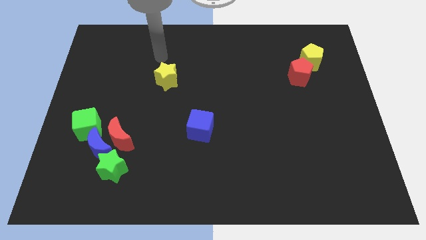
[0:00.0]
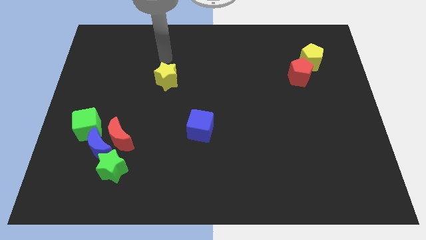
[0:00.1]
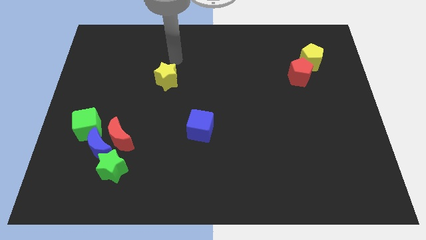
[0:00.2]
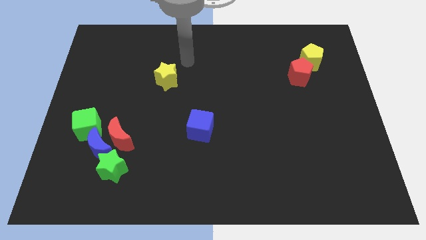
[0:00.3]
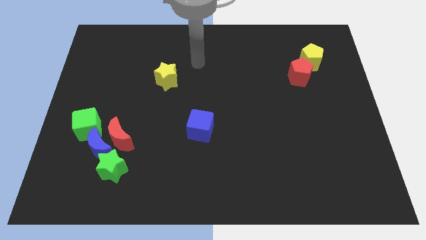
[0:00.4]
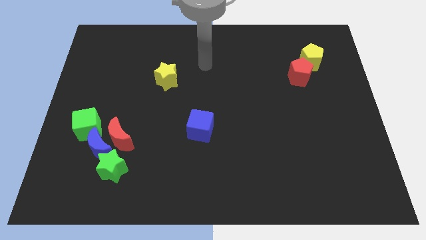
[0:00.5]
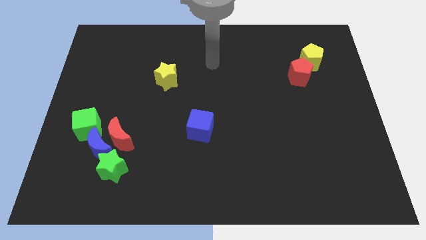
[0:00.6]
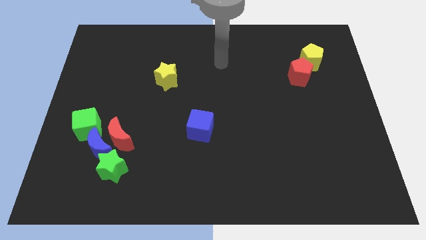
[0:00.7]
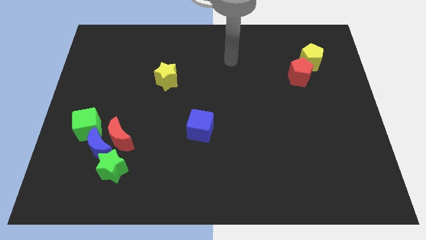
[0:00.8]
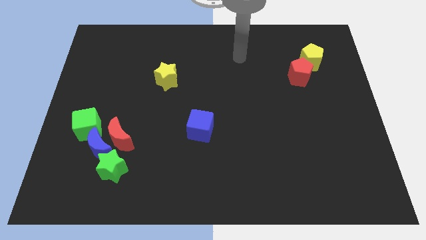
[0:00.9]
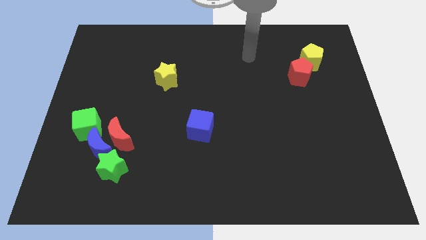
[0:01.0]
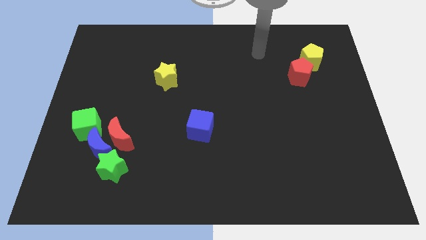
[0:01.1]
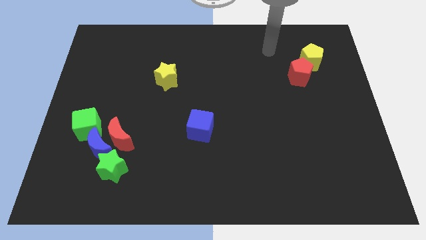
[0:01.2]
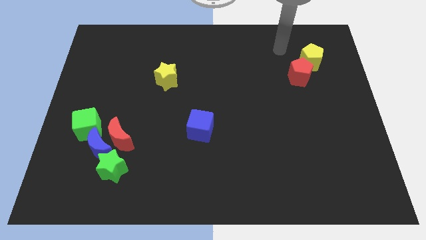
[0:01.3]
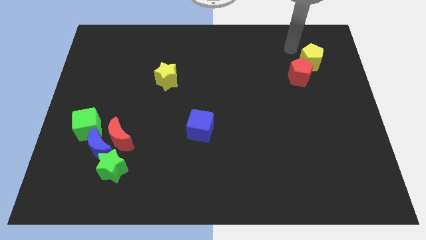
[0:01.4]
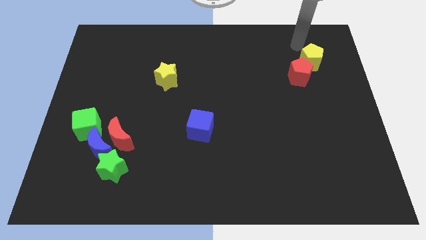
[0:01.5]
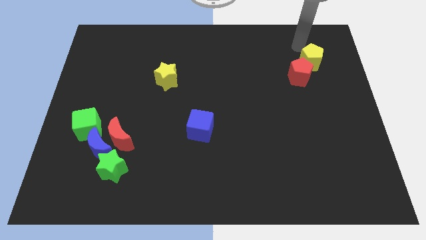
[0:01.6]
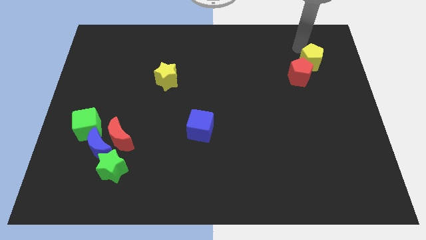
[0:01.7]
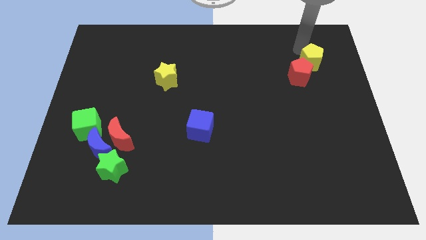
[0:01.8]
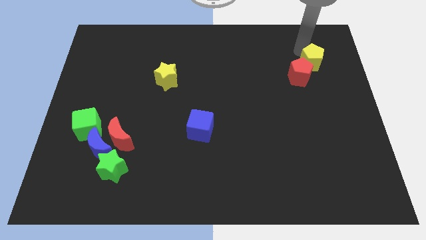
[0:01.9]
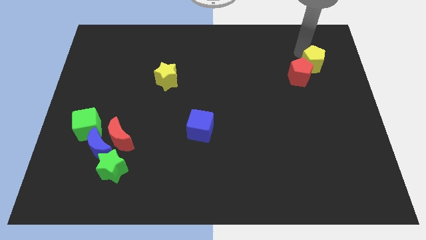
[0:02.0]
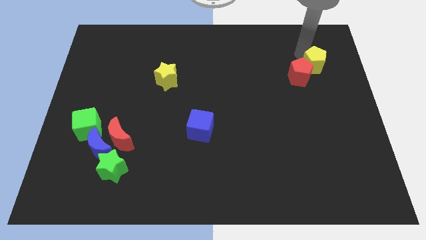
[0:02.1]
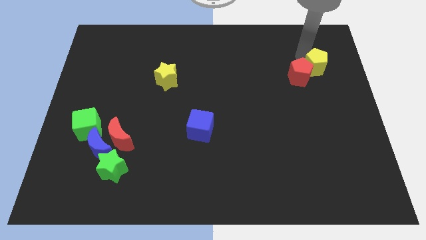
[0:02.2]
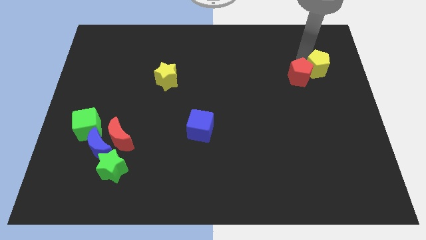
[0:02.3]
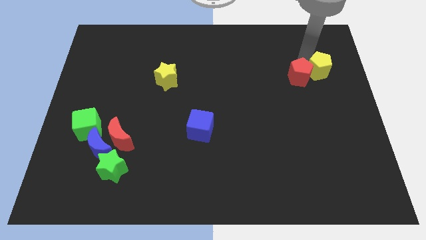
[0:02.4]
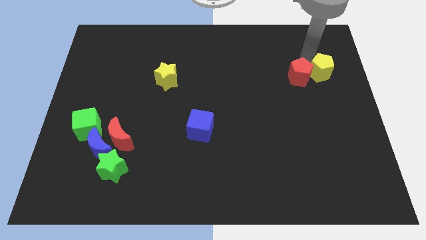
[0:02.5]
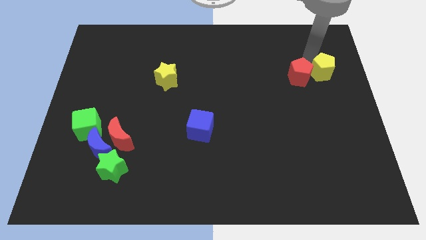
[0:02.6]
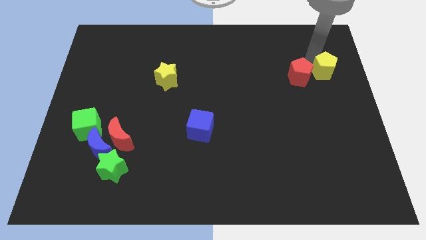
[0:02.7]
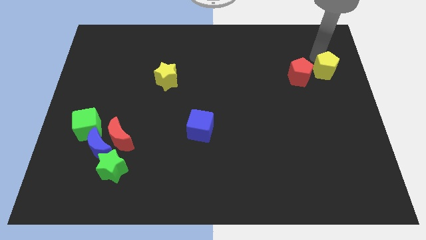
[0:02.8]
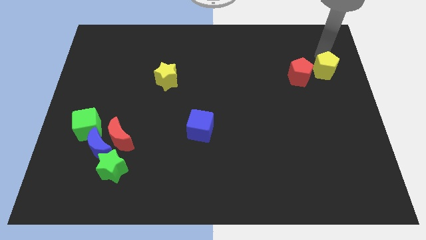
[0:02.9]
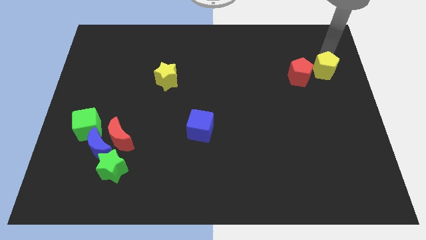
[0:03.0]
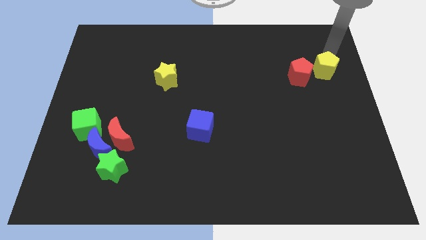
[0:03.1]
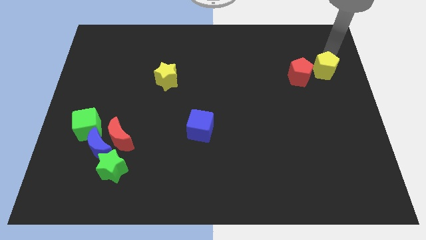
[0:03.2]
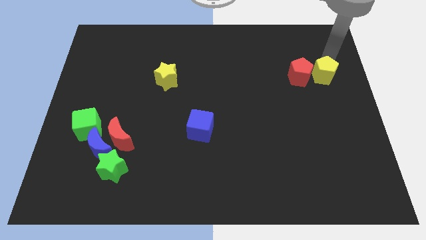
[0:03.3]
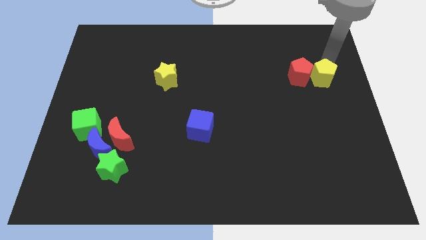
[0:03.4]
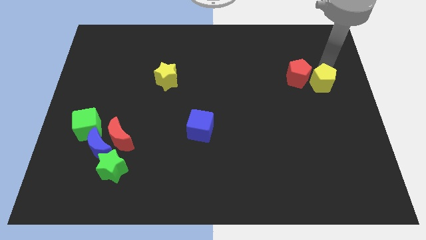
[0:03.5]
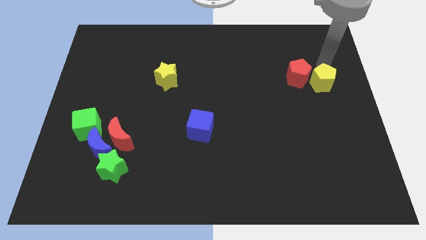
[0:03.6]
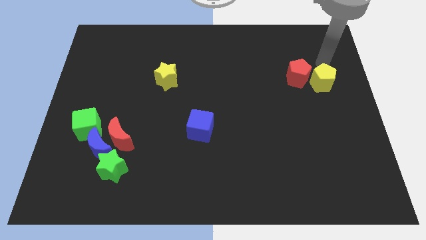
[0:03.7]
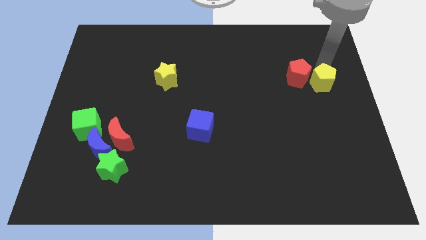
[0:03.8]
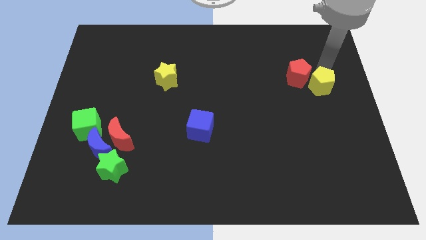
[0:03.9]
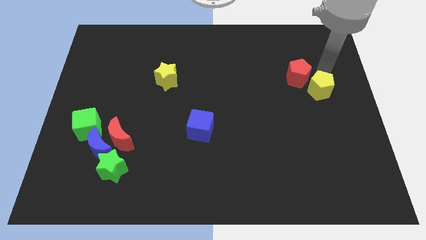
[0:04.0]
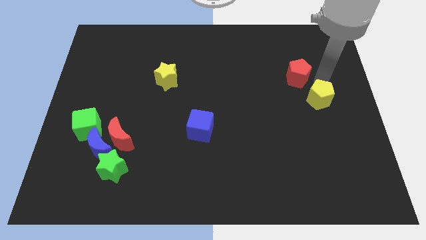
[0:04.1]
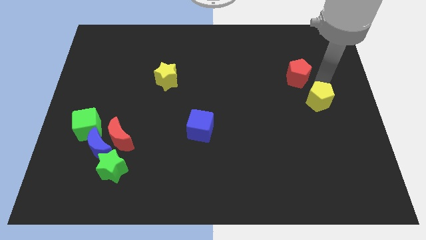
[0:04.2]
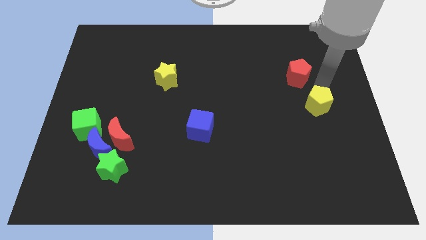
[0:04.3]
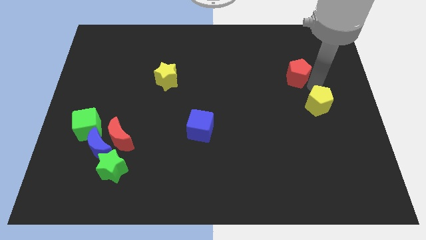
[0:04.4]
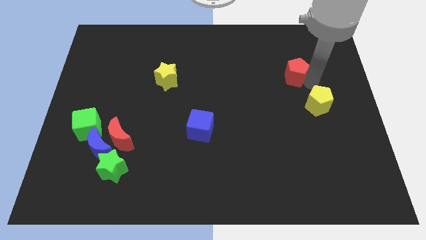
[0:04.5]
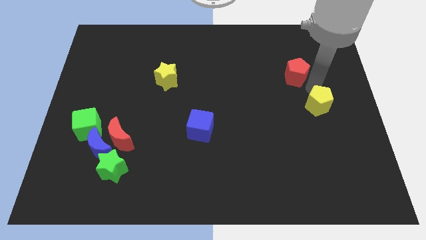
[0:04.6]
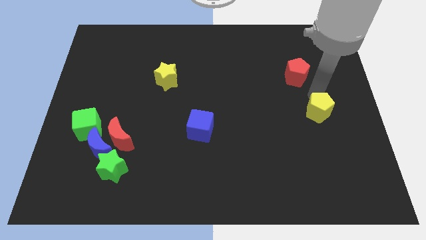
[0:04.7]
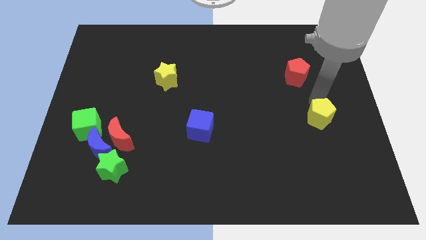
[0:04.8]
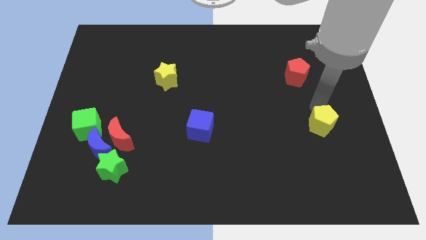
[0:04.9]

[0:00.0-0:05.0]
move the yellow pentagon downwards

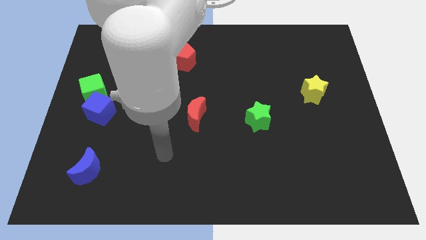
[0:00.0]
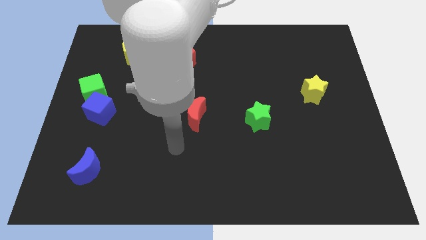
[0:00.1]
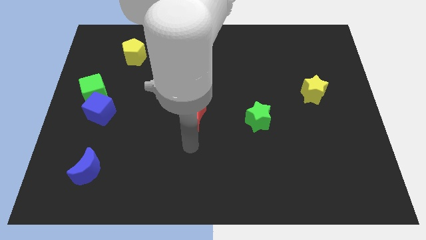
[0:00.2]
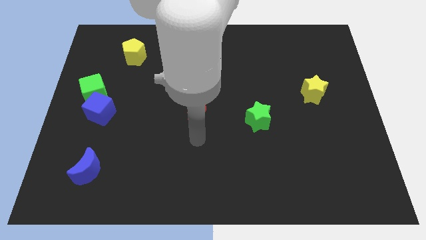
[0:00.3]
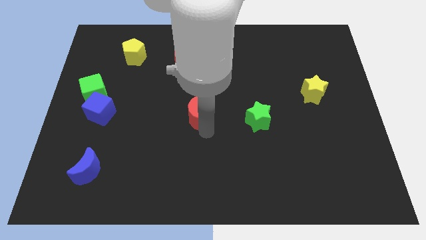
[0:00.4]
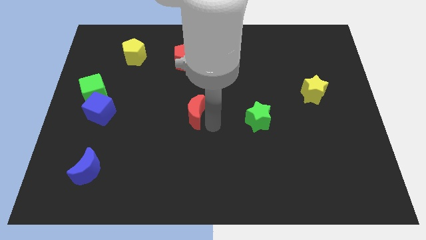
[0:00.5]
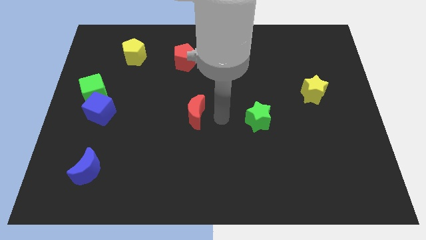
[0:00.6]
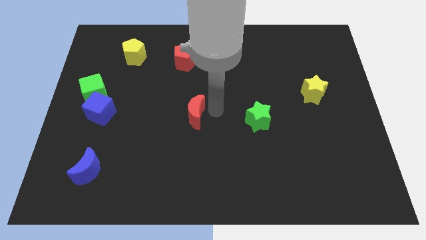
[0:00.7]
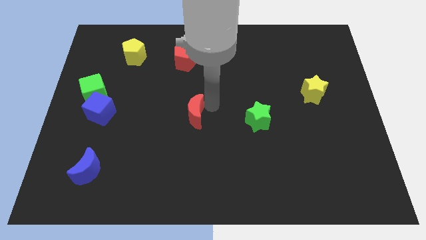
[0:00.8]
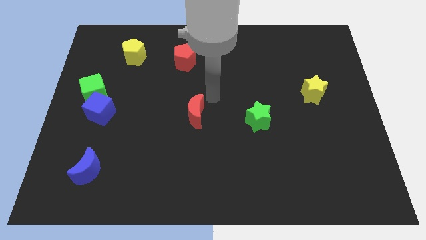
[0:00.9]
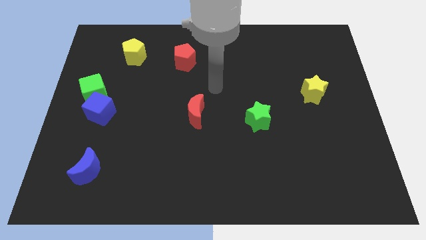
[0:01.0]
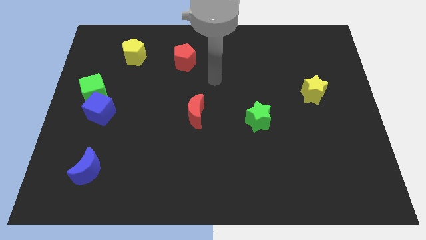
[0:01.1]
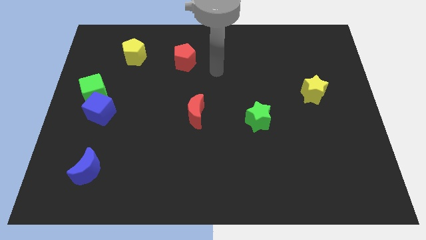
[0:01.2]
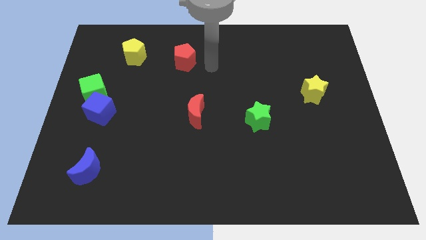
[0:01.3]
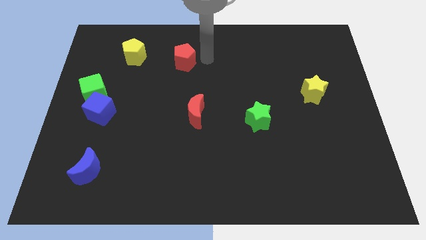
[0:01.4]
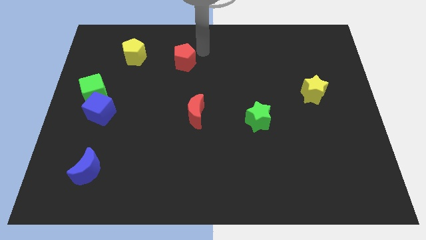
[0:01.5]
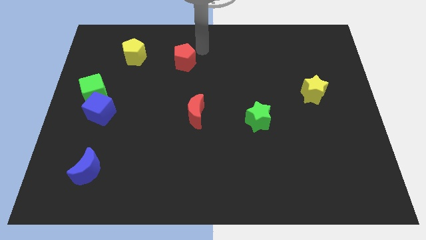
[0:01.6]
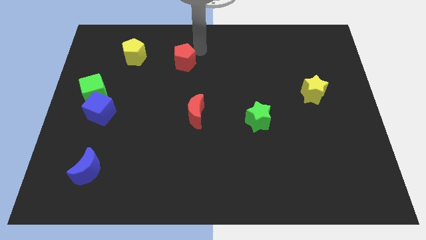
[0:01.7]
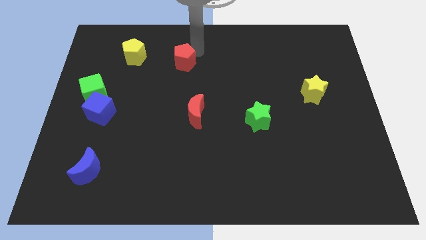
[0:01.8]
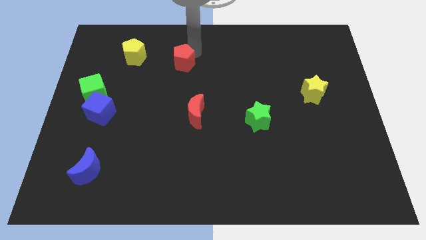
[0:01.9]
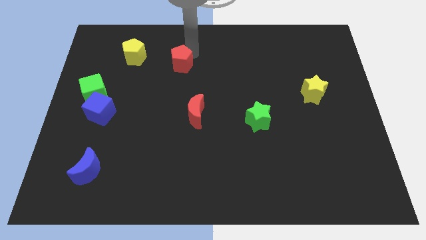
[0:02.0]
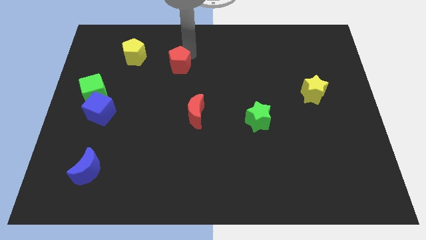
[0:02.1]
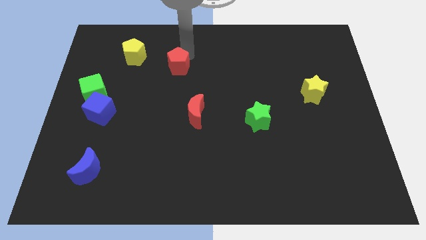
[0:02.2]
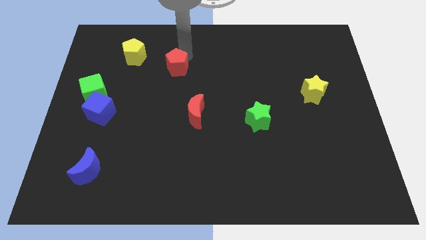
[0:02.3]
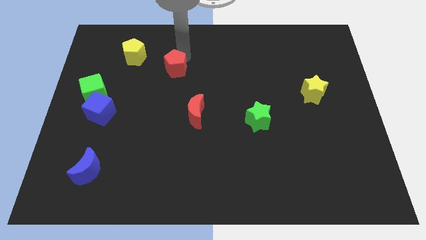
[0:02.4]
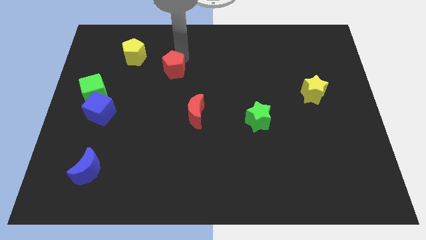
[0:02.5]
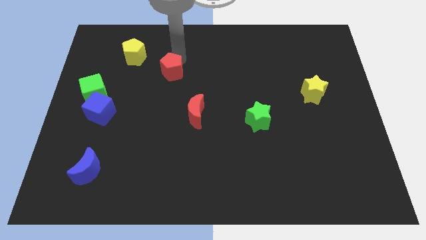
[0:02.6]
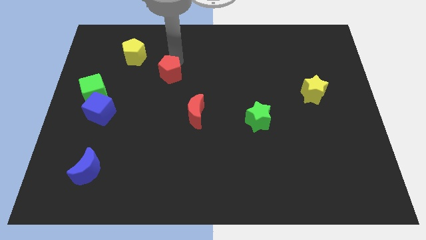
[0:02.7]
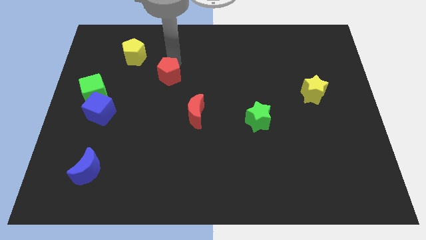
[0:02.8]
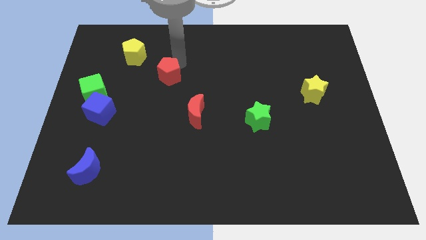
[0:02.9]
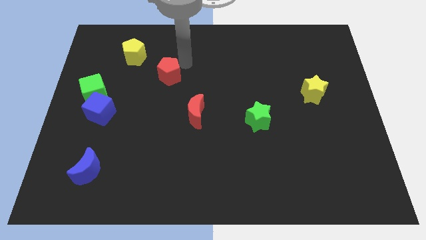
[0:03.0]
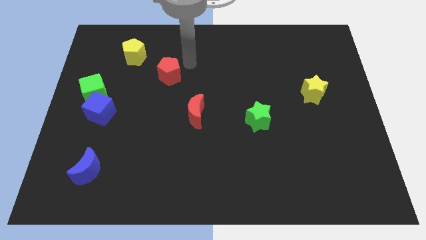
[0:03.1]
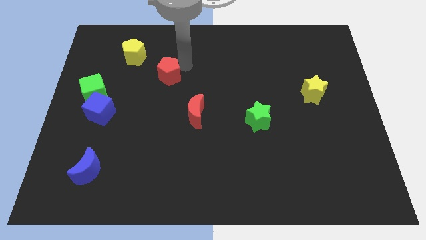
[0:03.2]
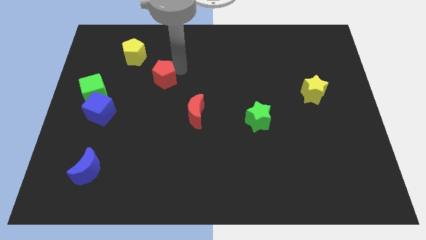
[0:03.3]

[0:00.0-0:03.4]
slide the red pentagon downwards and left slightly
